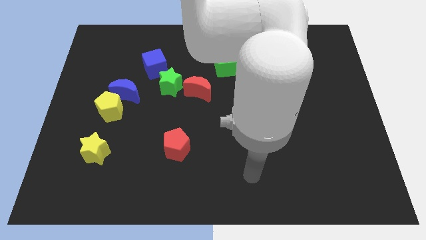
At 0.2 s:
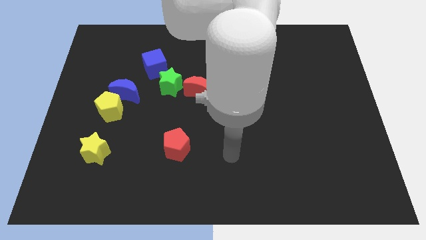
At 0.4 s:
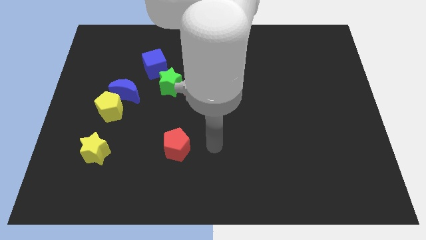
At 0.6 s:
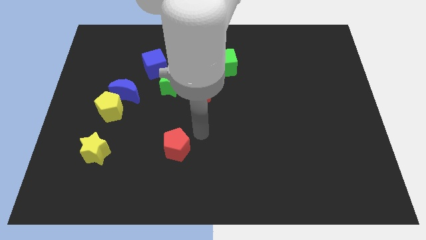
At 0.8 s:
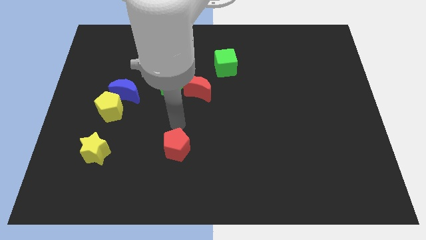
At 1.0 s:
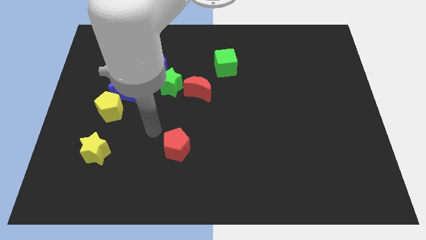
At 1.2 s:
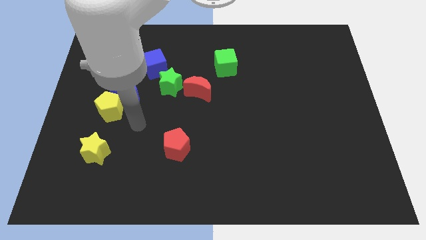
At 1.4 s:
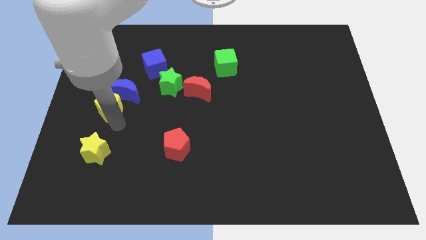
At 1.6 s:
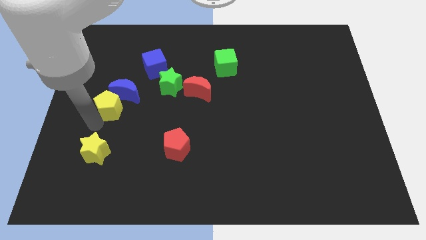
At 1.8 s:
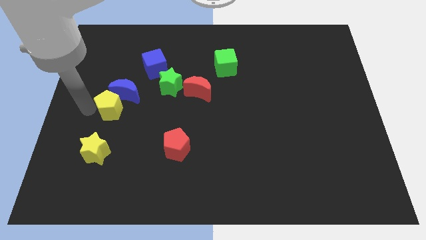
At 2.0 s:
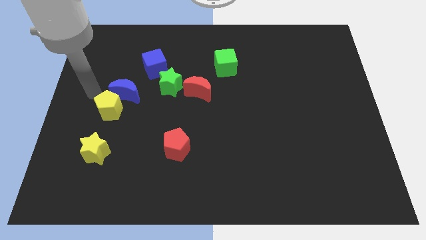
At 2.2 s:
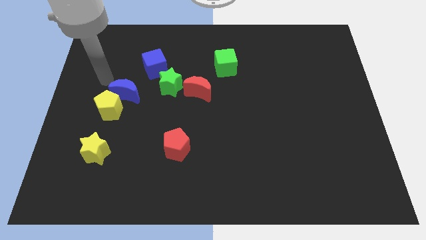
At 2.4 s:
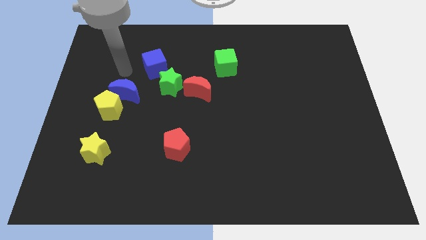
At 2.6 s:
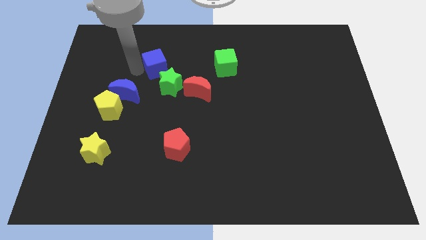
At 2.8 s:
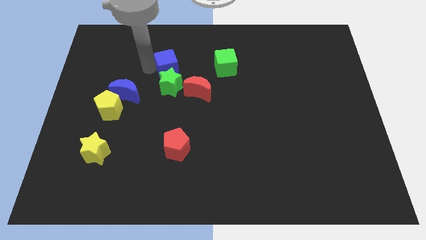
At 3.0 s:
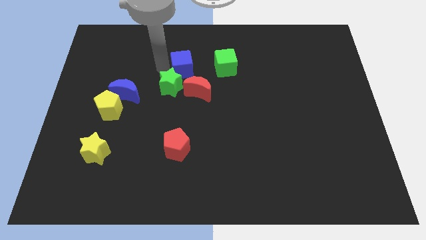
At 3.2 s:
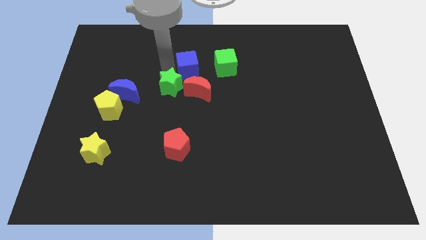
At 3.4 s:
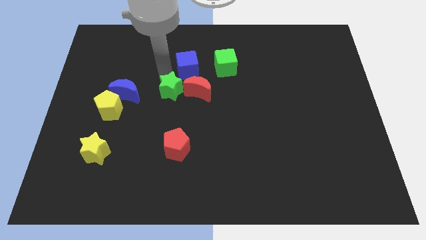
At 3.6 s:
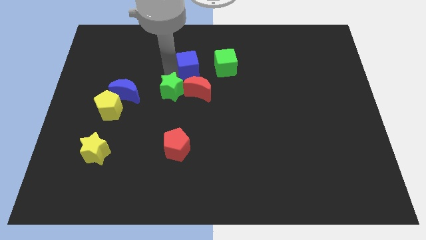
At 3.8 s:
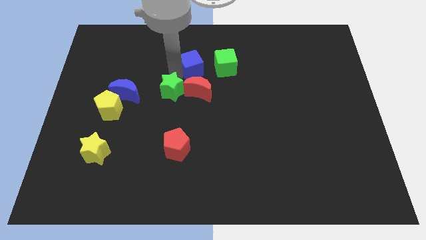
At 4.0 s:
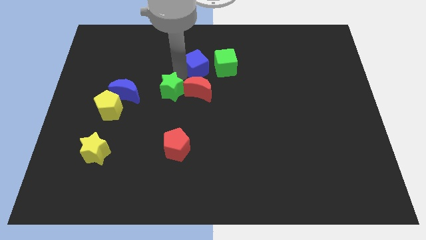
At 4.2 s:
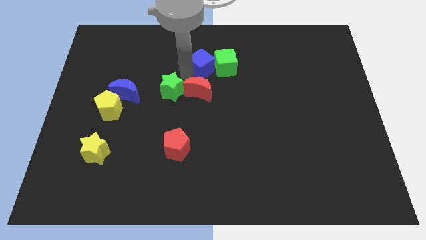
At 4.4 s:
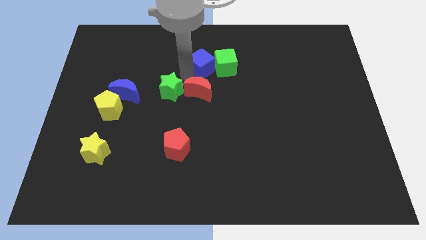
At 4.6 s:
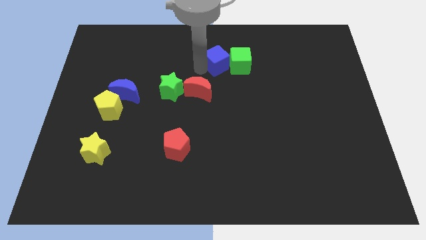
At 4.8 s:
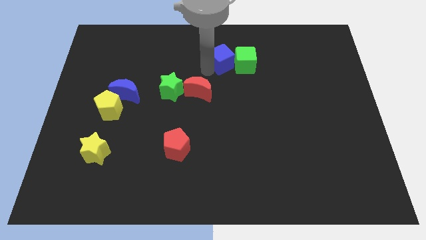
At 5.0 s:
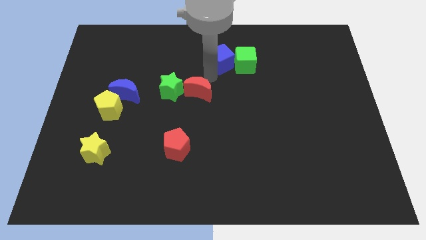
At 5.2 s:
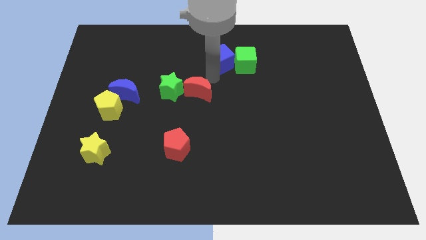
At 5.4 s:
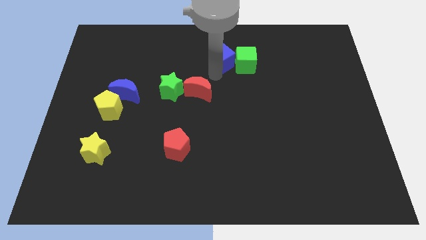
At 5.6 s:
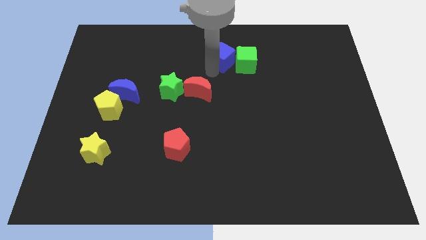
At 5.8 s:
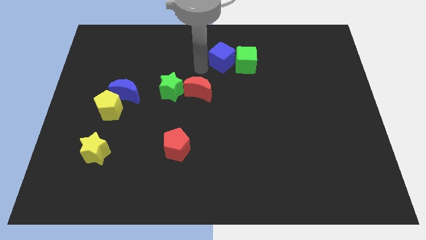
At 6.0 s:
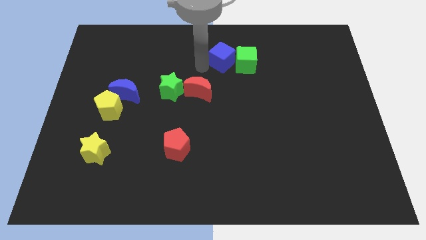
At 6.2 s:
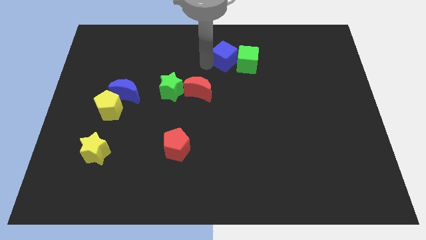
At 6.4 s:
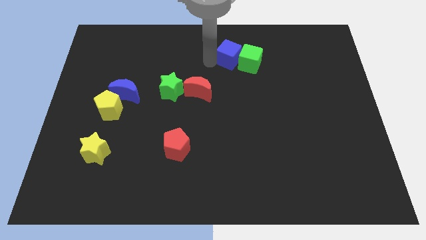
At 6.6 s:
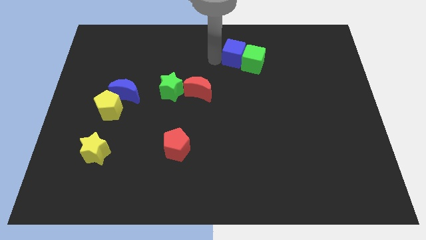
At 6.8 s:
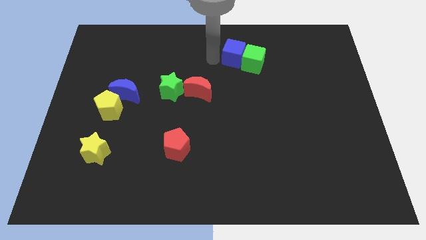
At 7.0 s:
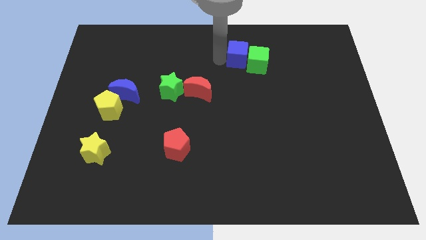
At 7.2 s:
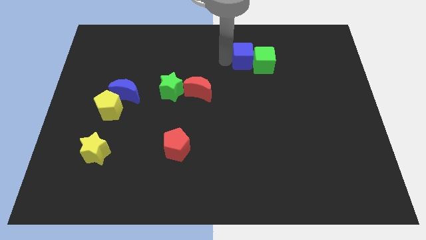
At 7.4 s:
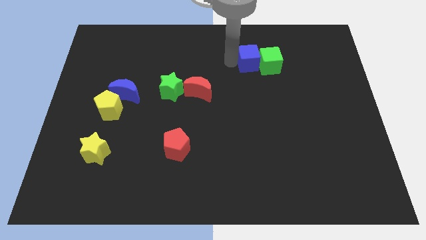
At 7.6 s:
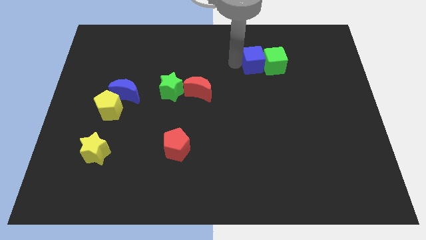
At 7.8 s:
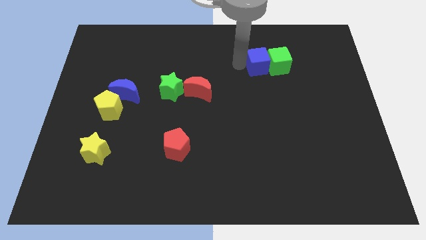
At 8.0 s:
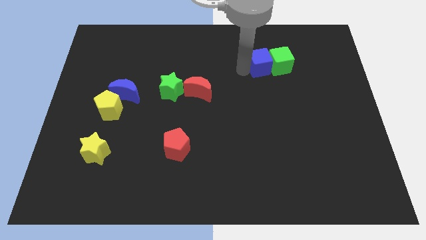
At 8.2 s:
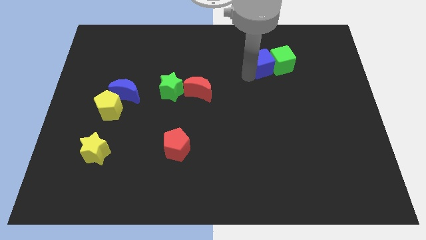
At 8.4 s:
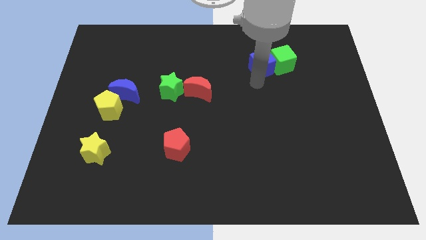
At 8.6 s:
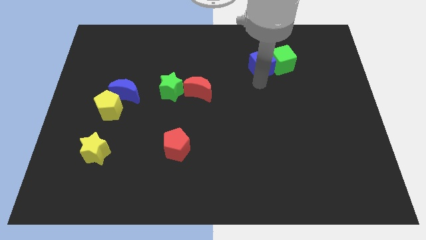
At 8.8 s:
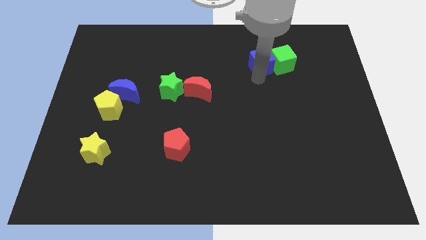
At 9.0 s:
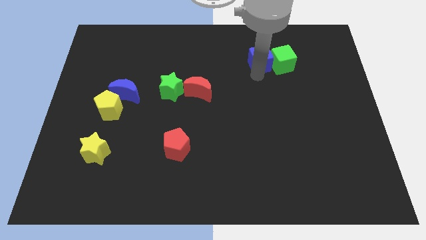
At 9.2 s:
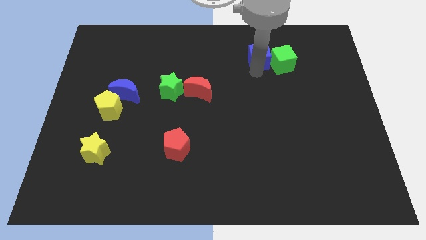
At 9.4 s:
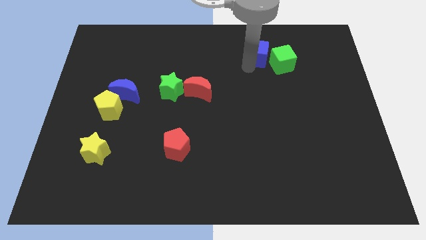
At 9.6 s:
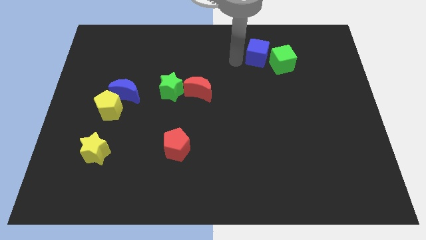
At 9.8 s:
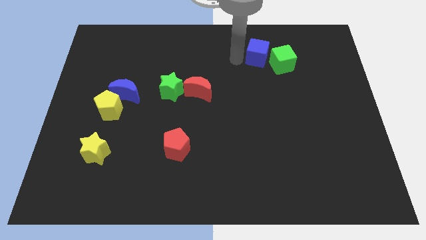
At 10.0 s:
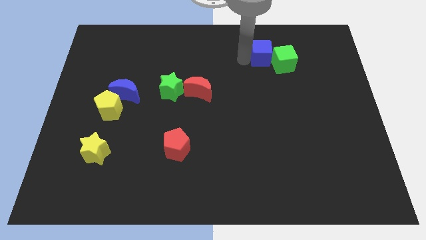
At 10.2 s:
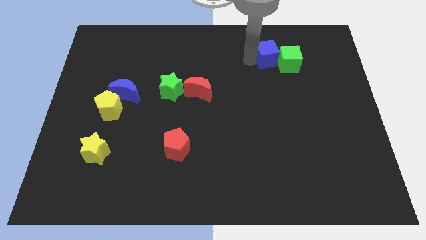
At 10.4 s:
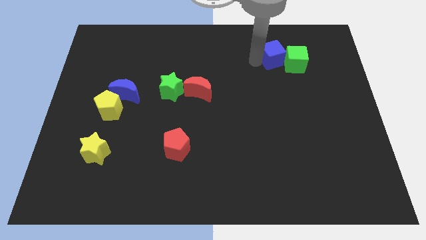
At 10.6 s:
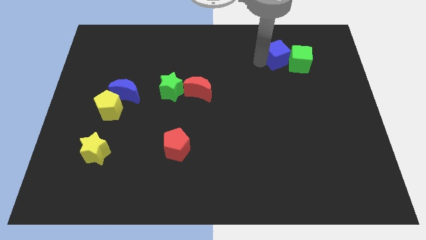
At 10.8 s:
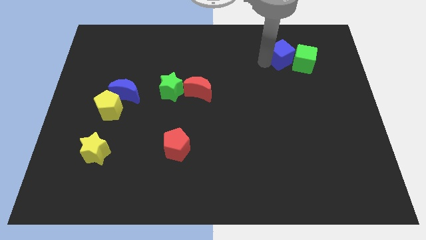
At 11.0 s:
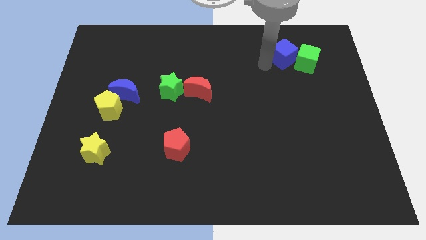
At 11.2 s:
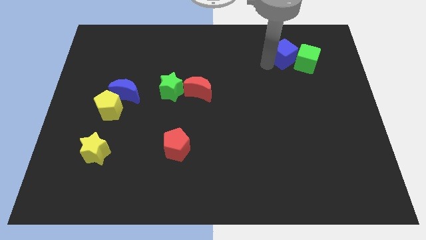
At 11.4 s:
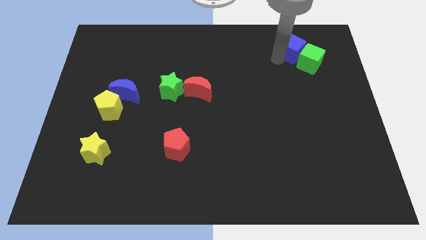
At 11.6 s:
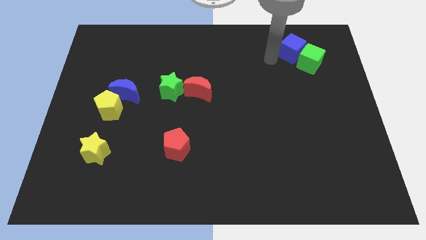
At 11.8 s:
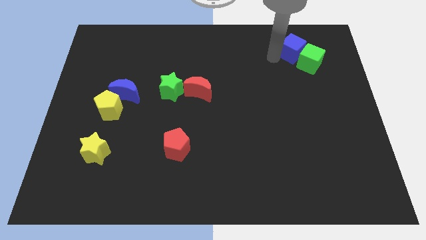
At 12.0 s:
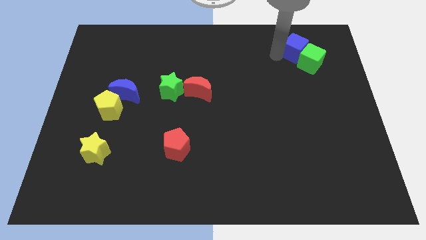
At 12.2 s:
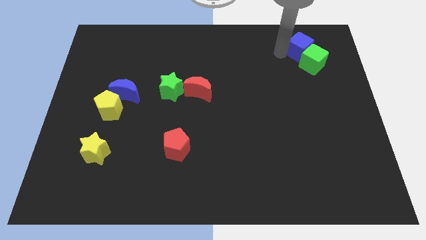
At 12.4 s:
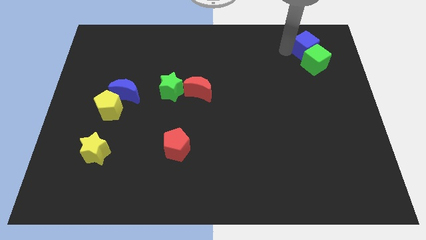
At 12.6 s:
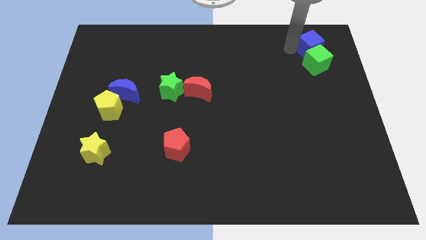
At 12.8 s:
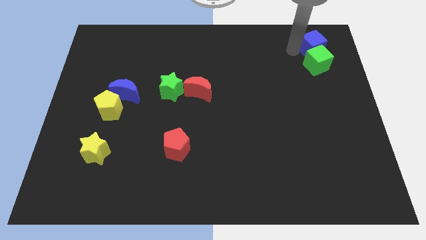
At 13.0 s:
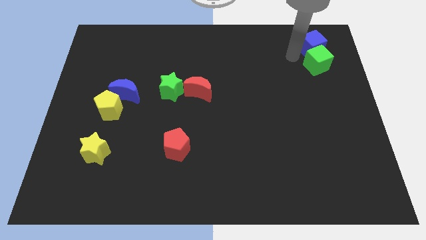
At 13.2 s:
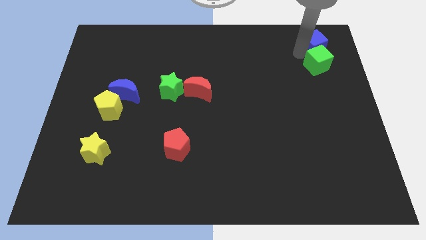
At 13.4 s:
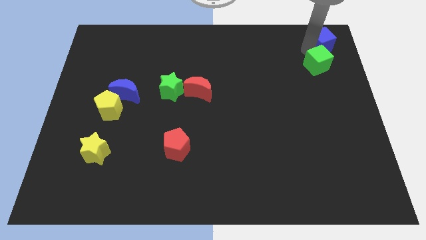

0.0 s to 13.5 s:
put the blue cube to the top right corner
